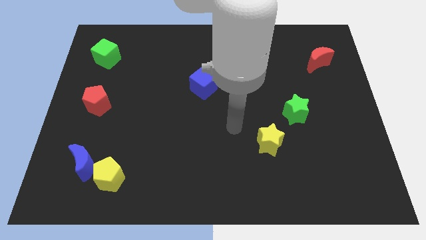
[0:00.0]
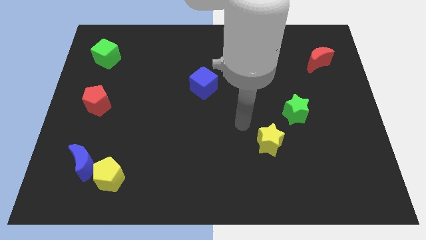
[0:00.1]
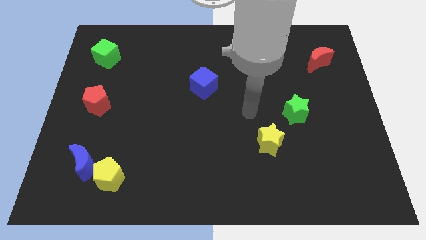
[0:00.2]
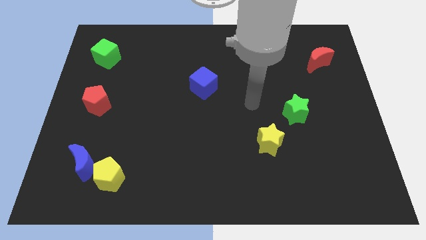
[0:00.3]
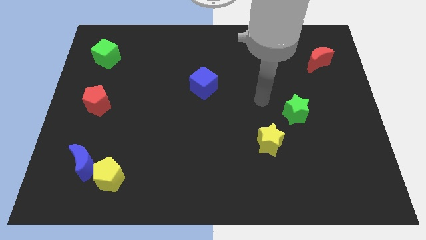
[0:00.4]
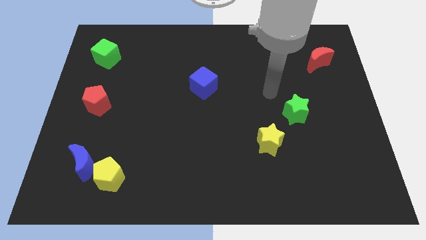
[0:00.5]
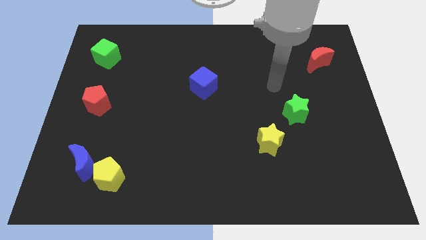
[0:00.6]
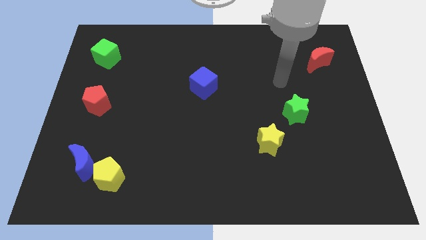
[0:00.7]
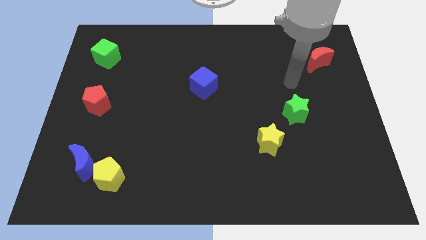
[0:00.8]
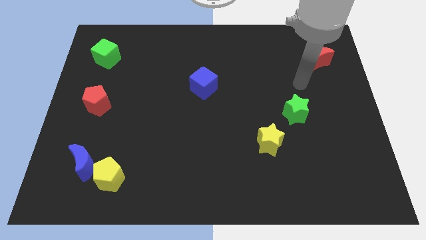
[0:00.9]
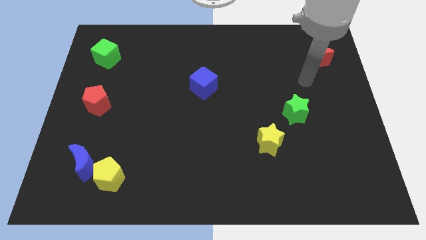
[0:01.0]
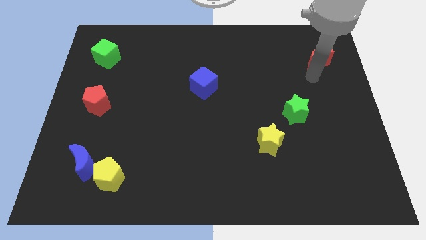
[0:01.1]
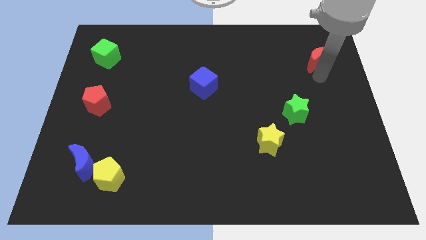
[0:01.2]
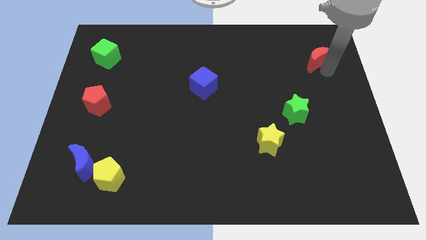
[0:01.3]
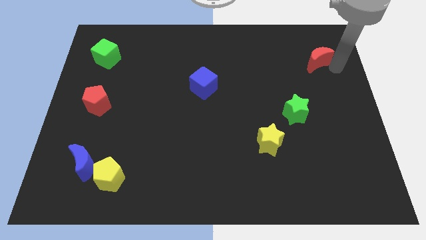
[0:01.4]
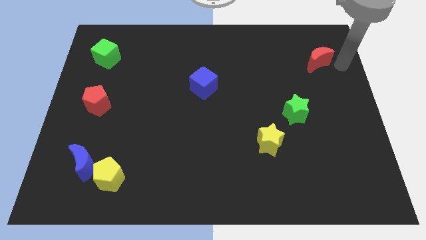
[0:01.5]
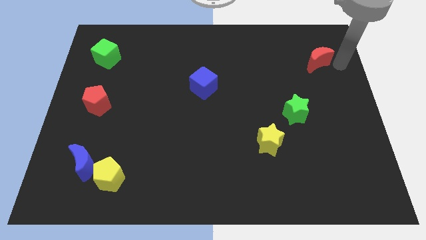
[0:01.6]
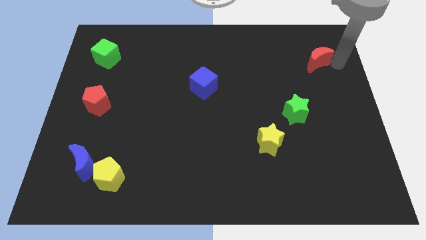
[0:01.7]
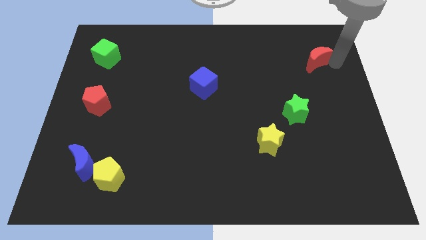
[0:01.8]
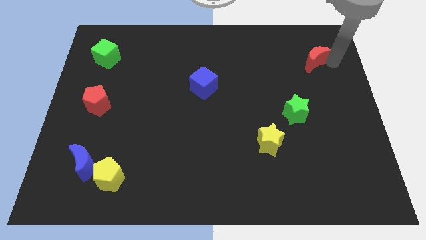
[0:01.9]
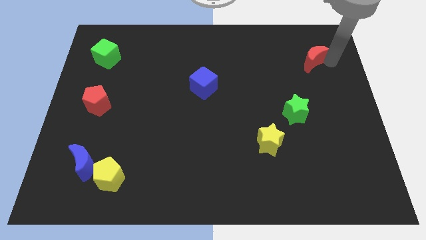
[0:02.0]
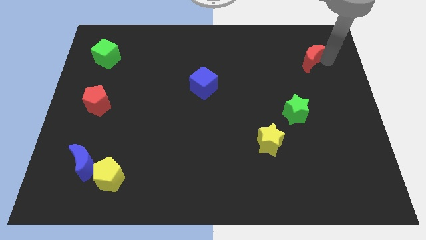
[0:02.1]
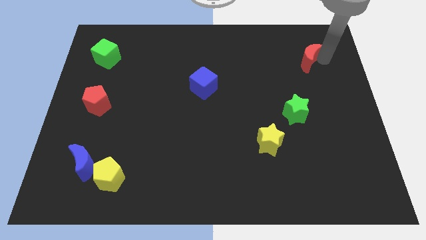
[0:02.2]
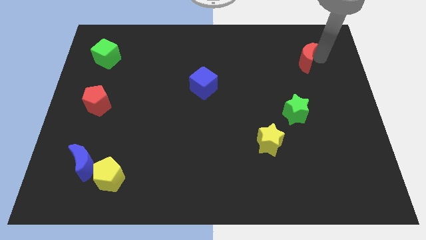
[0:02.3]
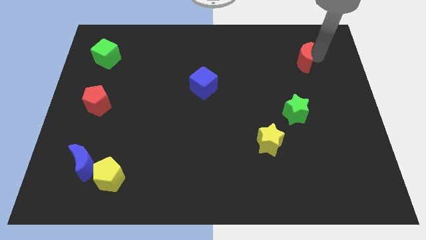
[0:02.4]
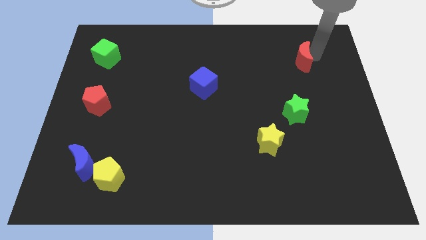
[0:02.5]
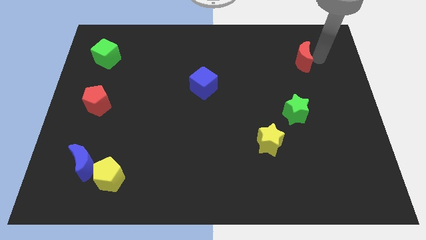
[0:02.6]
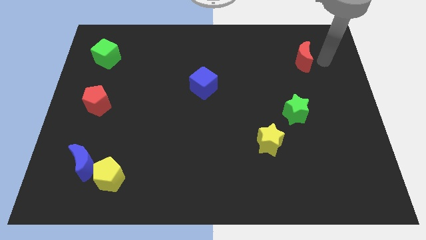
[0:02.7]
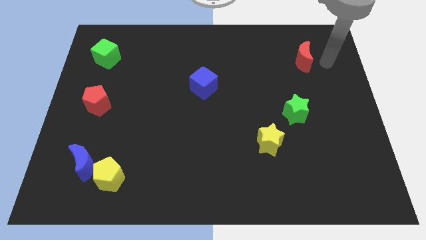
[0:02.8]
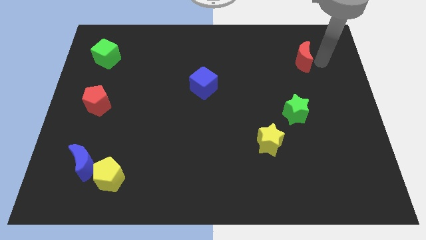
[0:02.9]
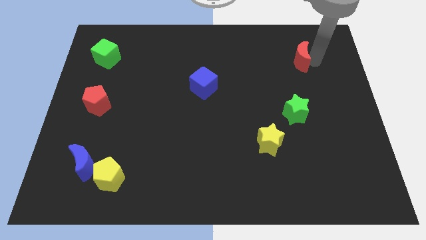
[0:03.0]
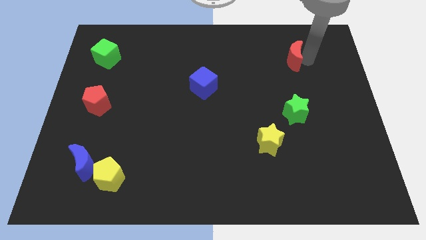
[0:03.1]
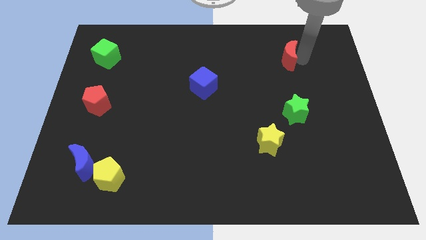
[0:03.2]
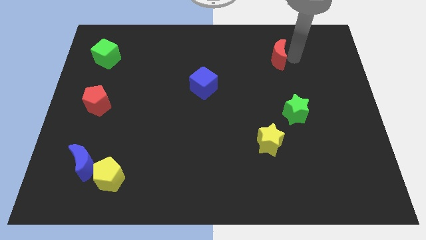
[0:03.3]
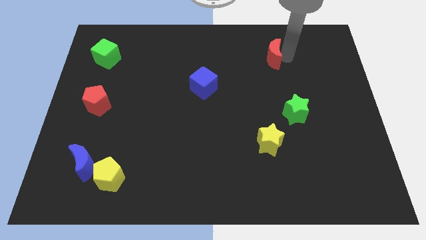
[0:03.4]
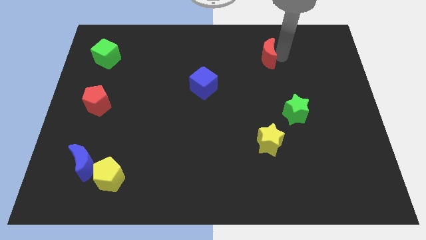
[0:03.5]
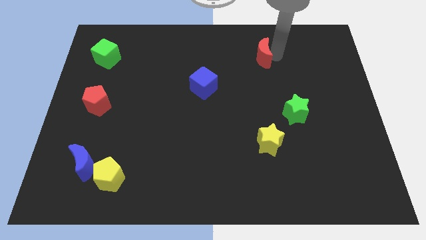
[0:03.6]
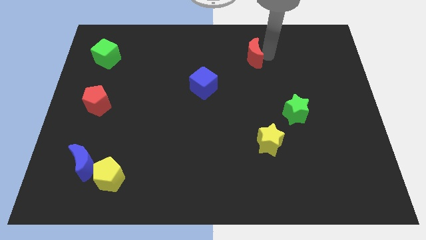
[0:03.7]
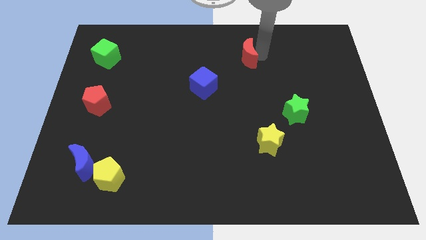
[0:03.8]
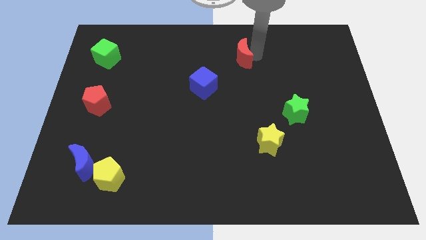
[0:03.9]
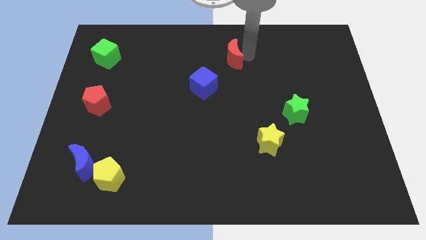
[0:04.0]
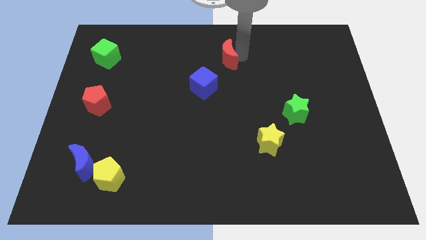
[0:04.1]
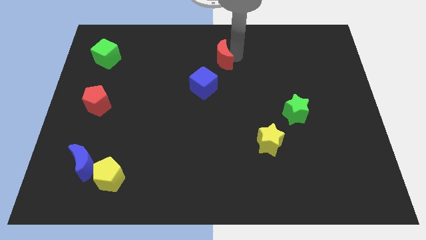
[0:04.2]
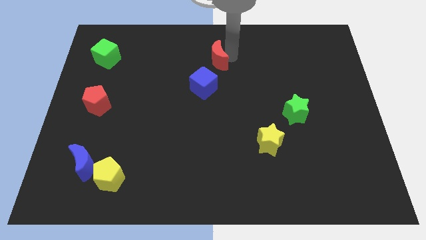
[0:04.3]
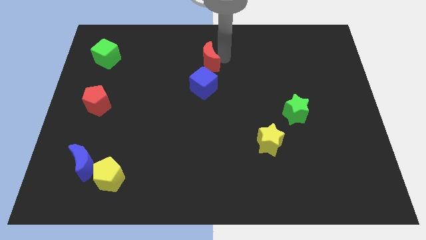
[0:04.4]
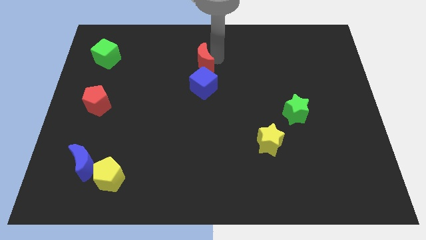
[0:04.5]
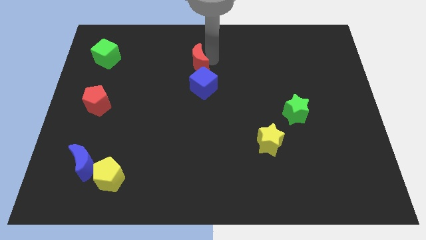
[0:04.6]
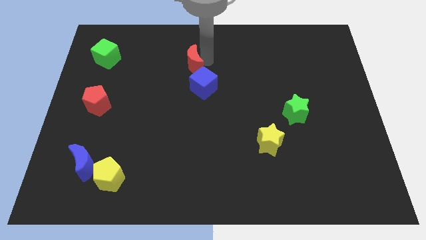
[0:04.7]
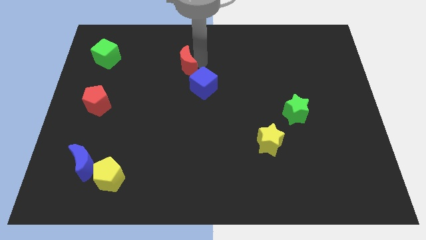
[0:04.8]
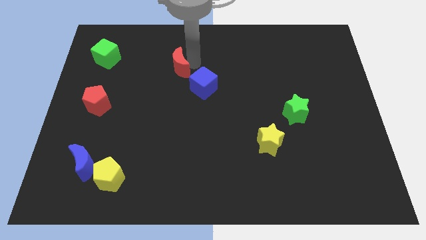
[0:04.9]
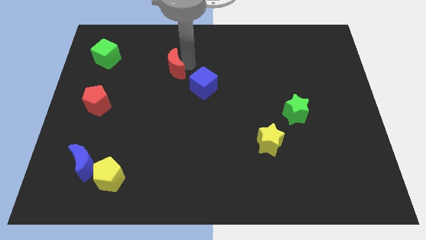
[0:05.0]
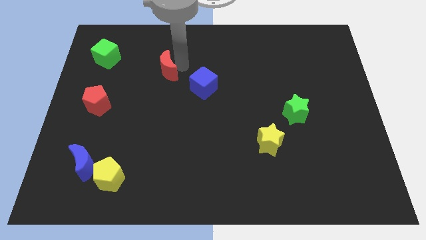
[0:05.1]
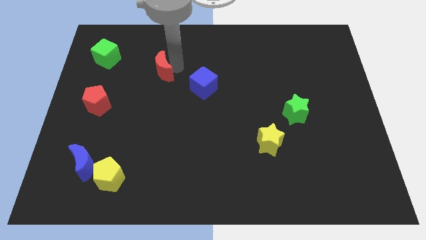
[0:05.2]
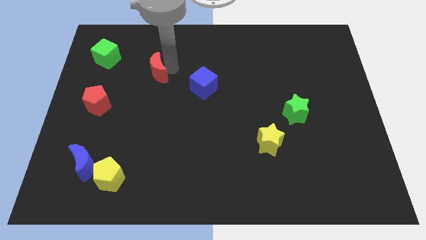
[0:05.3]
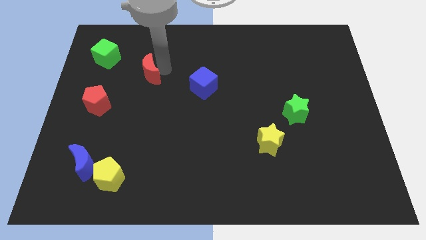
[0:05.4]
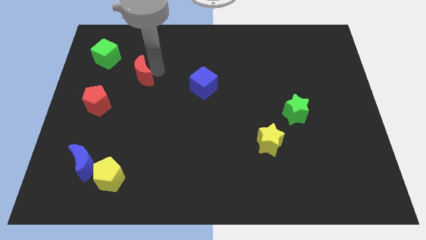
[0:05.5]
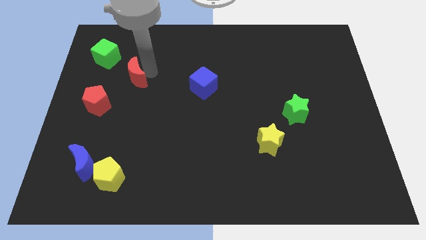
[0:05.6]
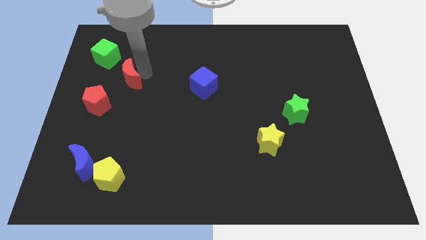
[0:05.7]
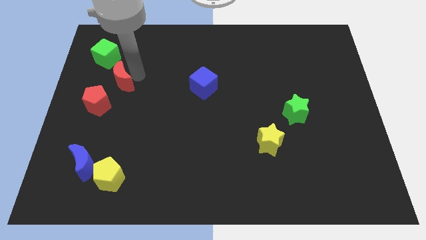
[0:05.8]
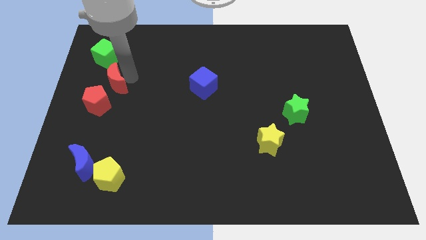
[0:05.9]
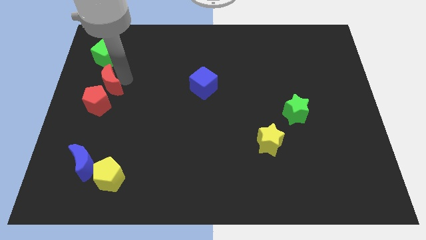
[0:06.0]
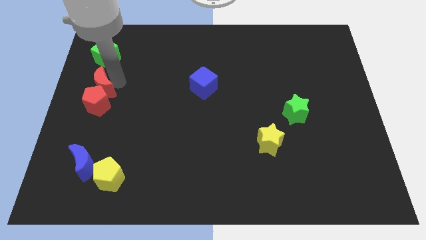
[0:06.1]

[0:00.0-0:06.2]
move the red moon to the center left
